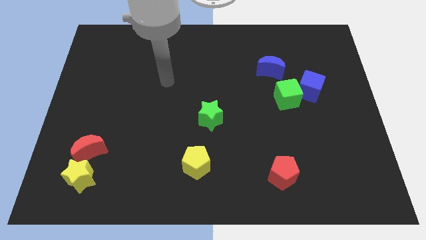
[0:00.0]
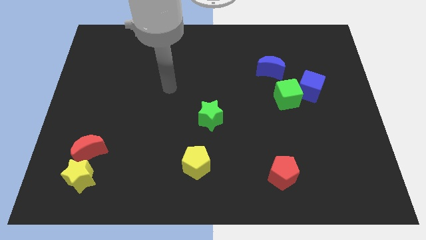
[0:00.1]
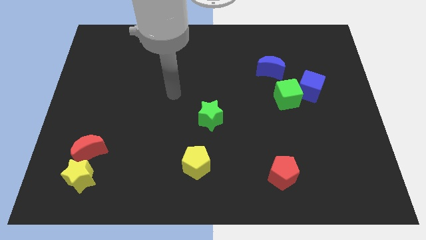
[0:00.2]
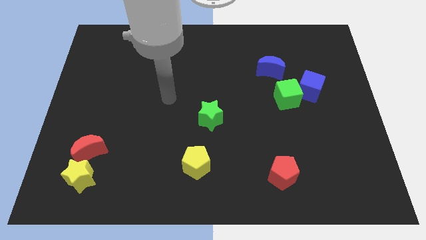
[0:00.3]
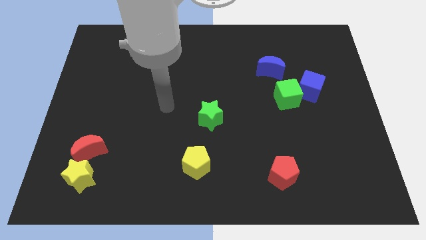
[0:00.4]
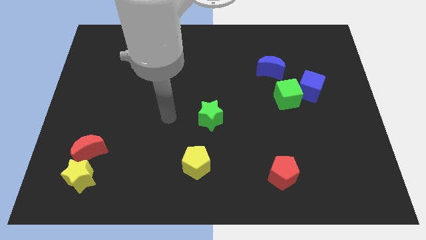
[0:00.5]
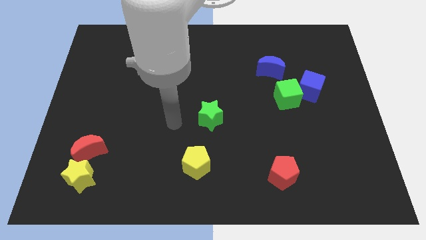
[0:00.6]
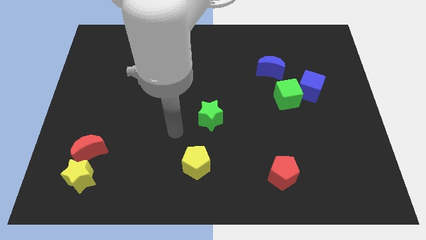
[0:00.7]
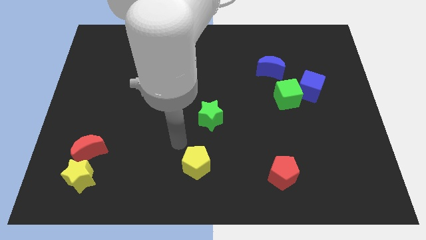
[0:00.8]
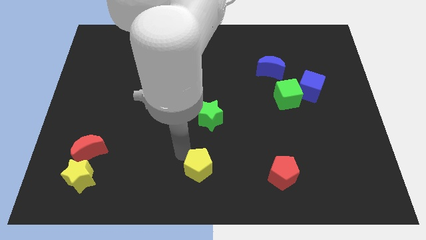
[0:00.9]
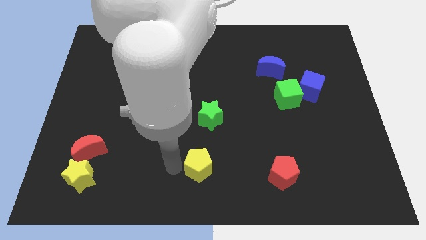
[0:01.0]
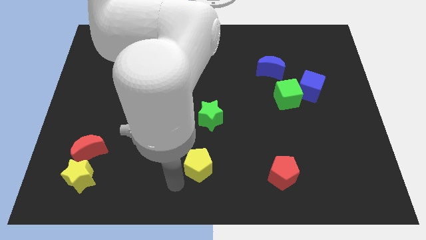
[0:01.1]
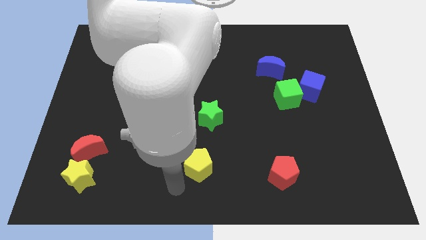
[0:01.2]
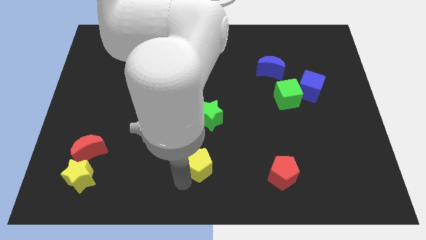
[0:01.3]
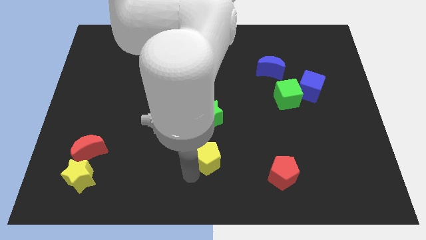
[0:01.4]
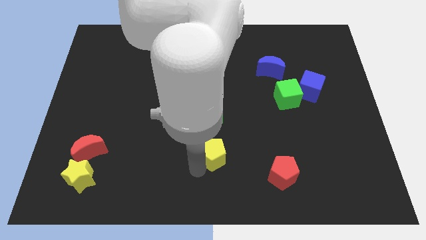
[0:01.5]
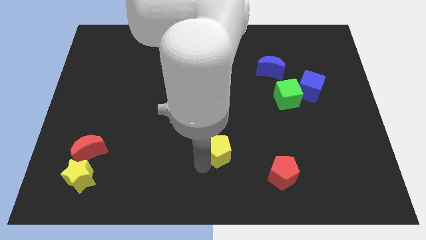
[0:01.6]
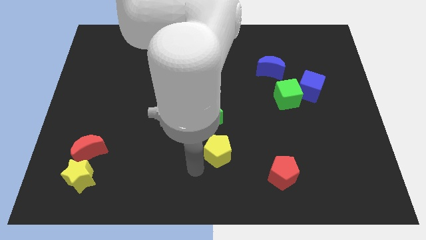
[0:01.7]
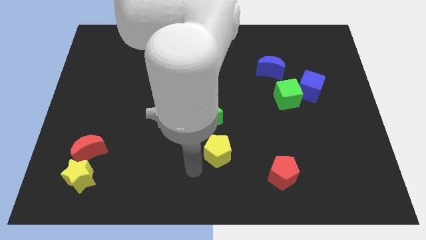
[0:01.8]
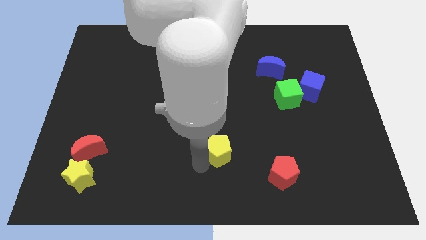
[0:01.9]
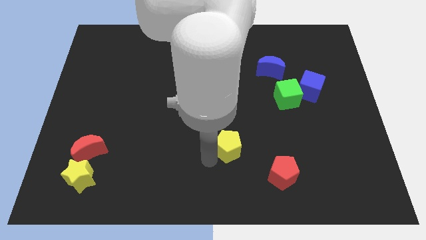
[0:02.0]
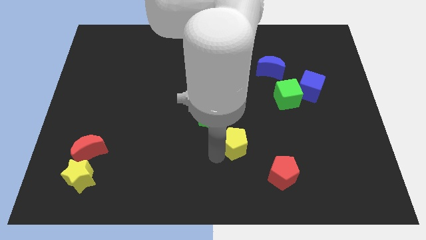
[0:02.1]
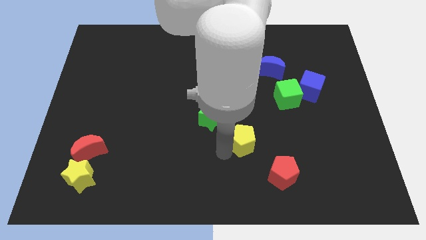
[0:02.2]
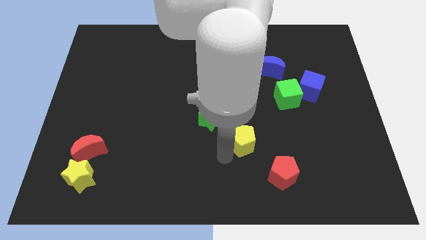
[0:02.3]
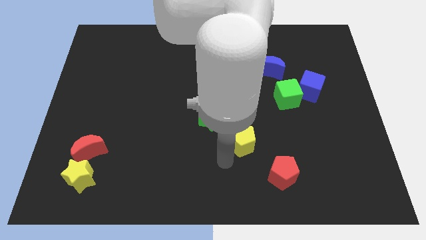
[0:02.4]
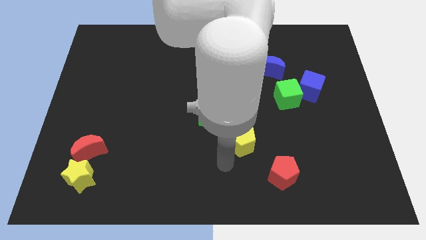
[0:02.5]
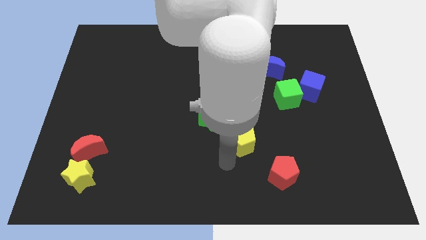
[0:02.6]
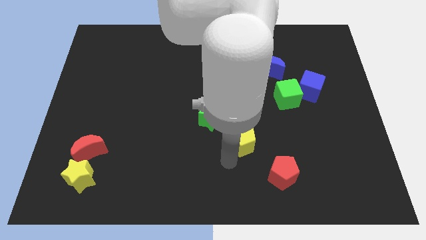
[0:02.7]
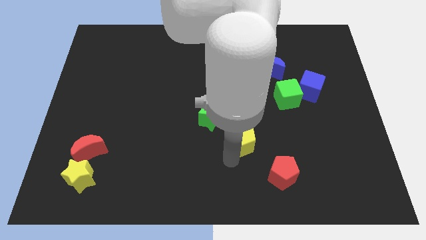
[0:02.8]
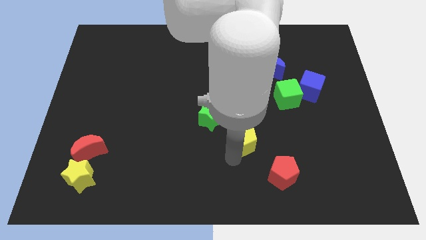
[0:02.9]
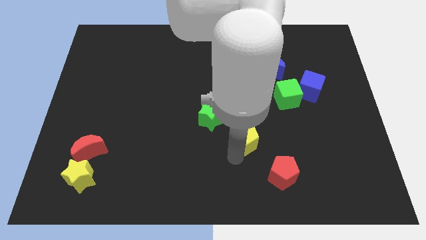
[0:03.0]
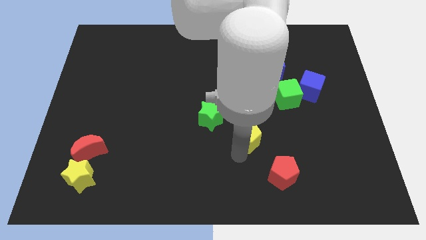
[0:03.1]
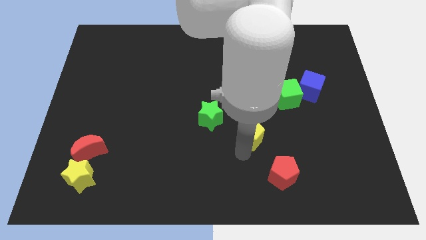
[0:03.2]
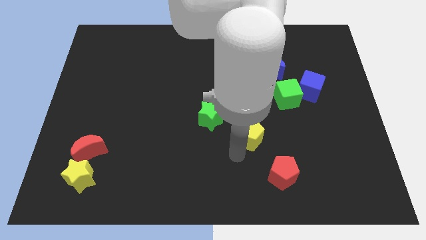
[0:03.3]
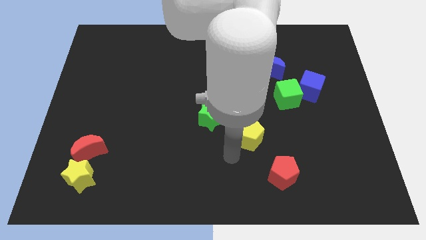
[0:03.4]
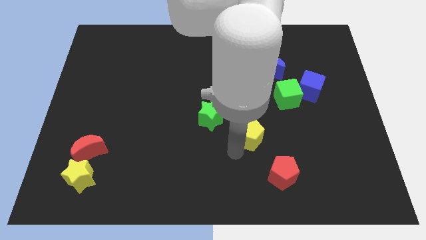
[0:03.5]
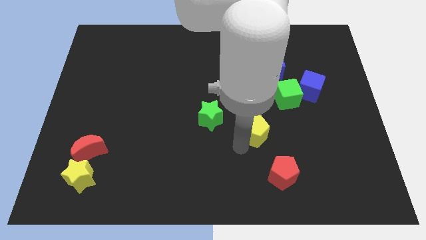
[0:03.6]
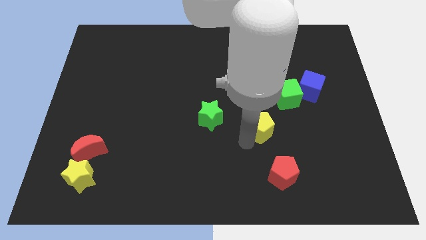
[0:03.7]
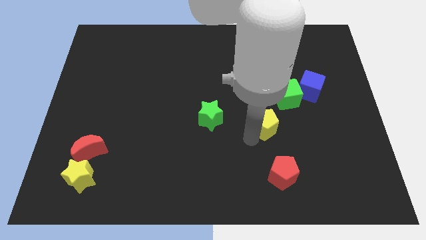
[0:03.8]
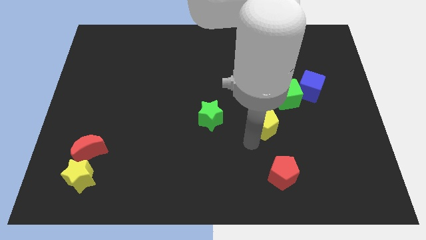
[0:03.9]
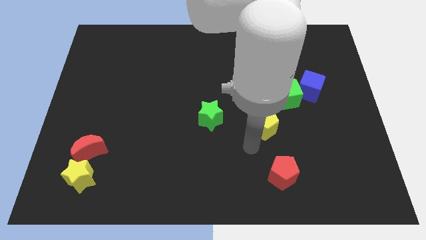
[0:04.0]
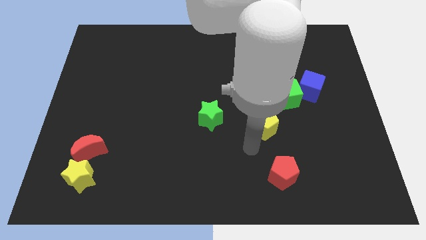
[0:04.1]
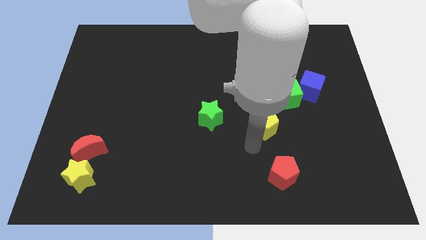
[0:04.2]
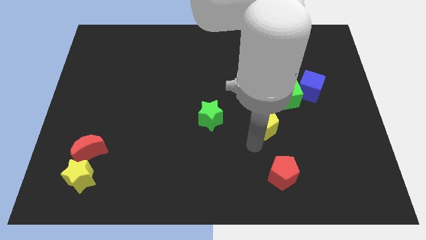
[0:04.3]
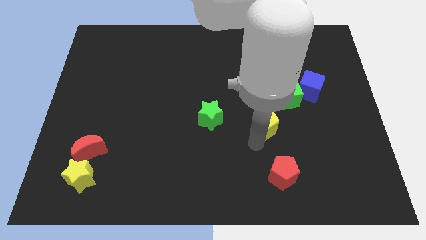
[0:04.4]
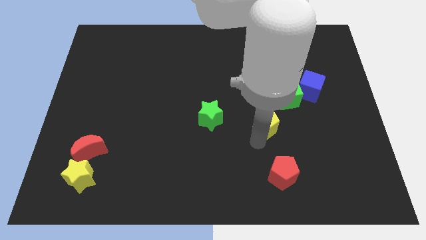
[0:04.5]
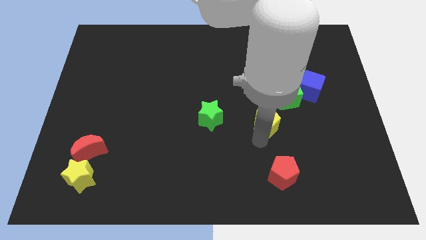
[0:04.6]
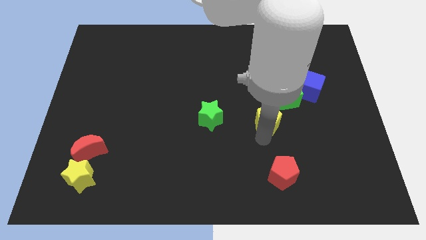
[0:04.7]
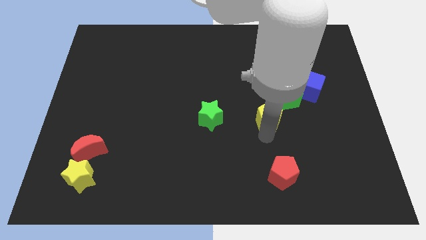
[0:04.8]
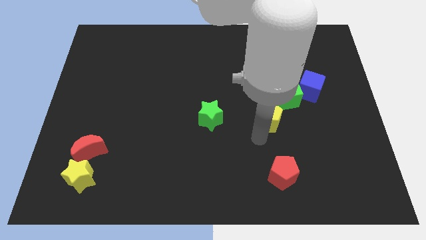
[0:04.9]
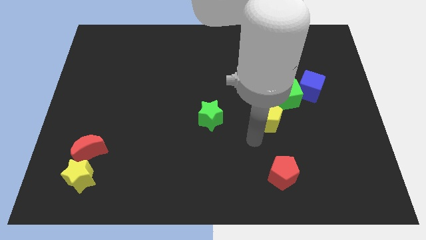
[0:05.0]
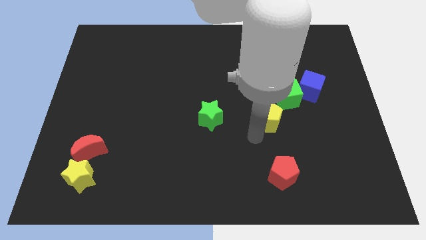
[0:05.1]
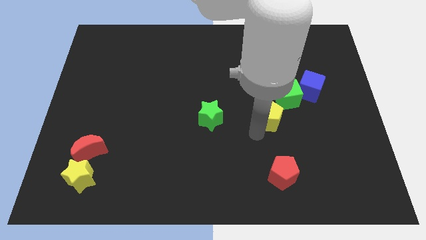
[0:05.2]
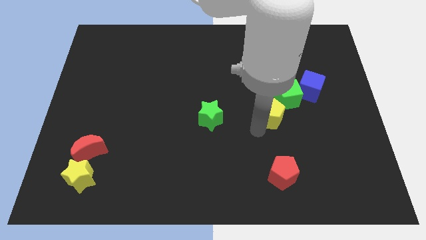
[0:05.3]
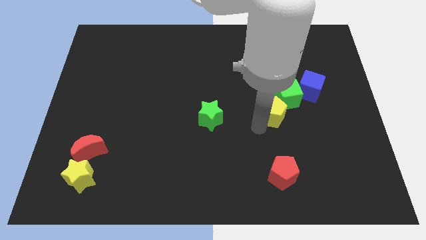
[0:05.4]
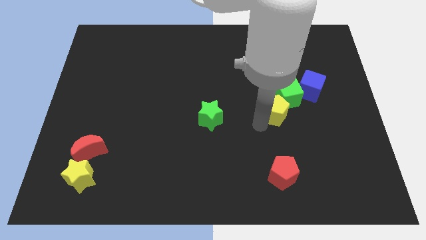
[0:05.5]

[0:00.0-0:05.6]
put the yellow pentagon to the green cube

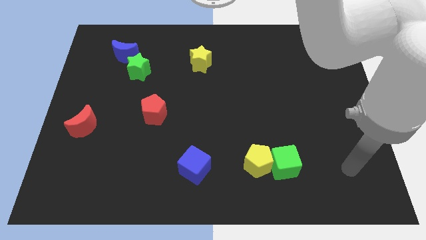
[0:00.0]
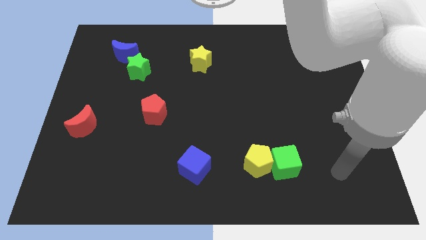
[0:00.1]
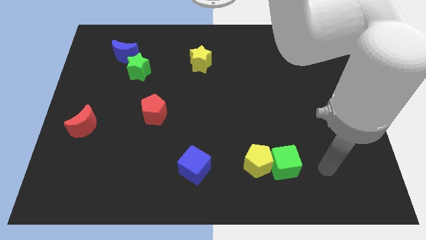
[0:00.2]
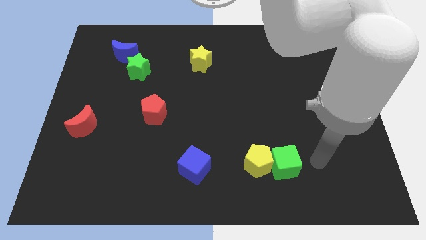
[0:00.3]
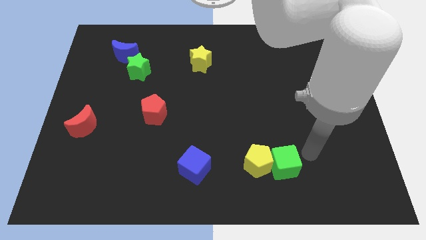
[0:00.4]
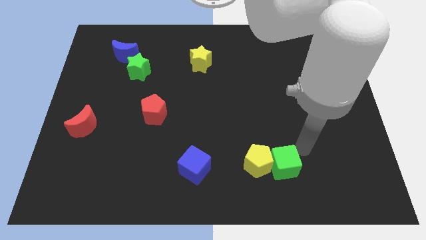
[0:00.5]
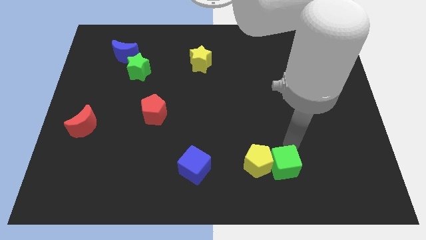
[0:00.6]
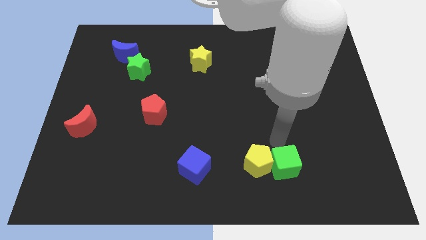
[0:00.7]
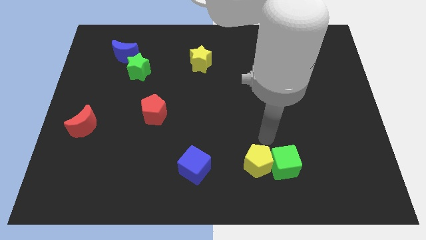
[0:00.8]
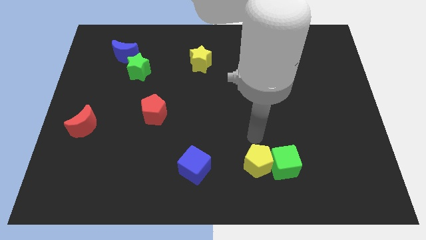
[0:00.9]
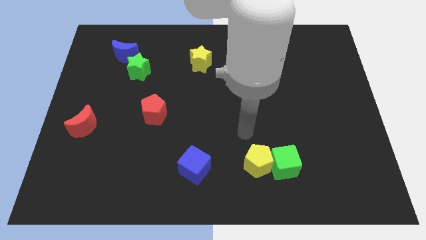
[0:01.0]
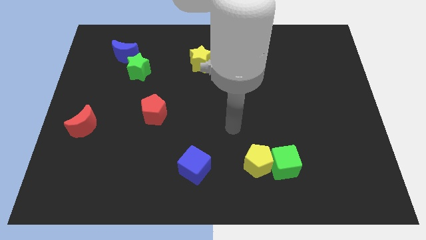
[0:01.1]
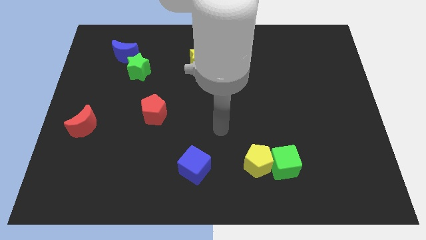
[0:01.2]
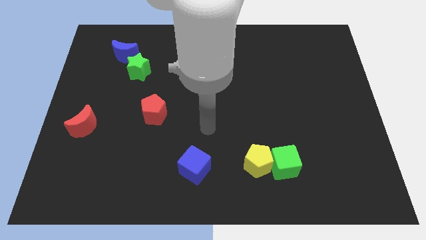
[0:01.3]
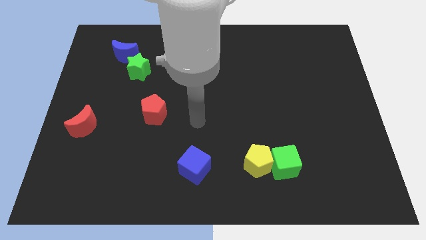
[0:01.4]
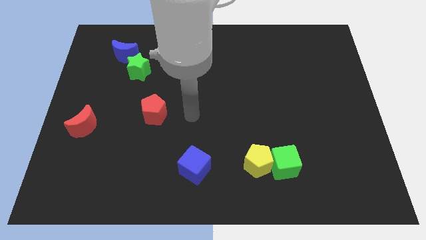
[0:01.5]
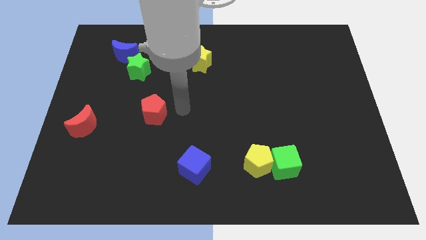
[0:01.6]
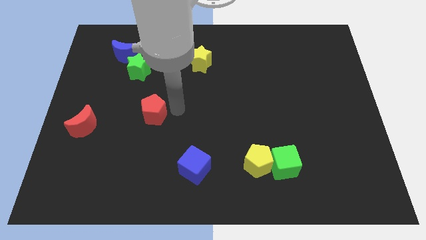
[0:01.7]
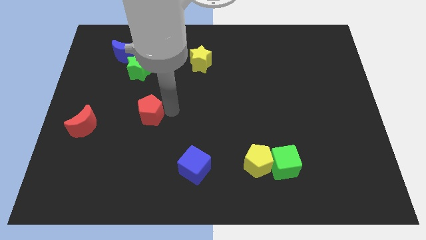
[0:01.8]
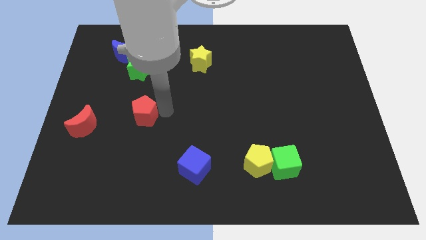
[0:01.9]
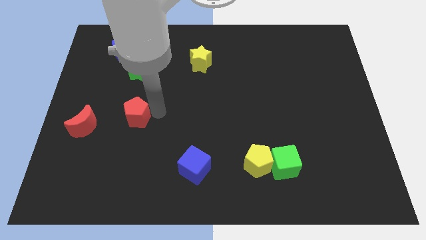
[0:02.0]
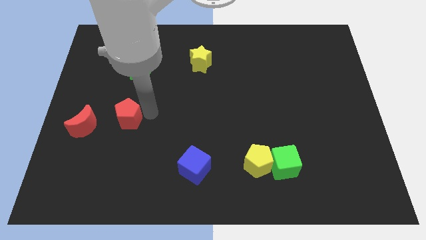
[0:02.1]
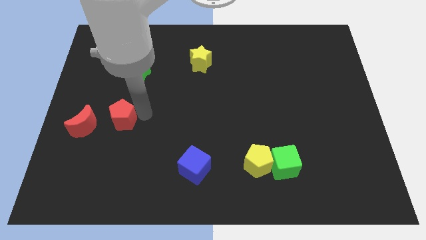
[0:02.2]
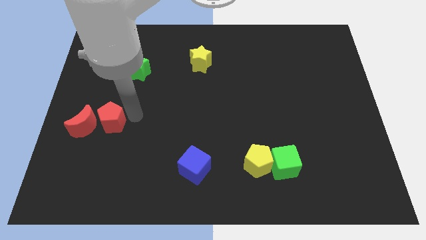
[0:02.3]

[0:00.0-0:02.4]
move the red pentagon close to the red moon
